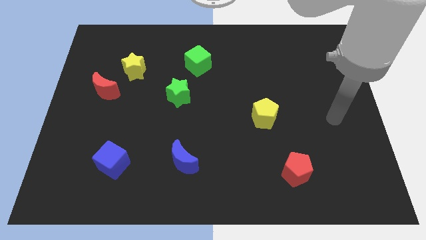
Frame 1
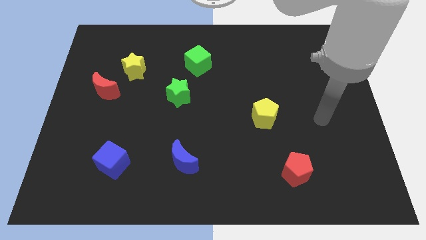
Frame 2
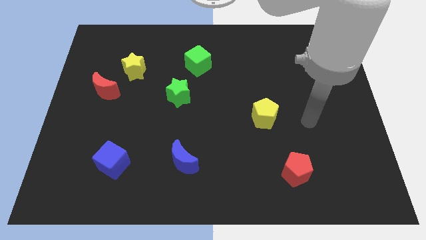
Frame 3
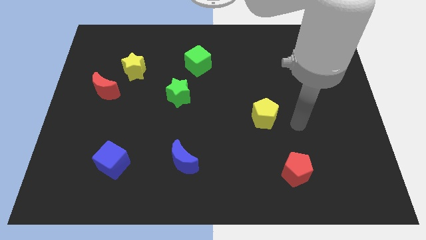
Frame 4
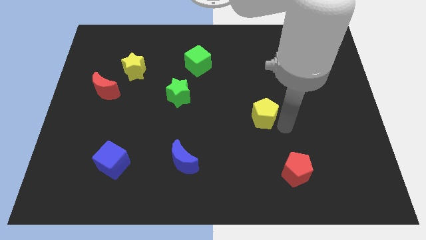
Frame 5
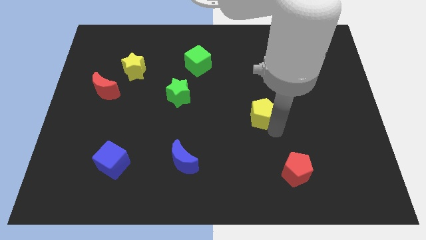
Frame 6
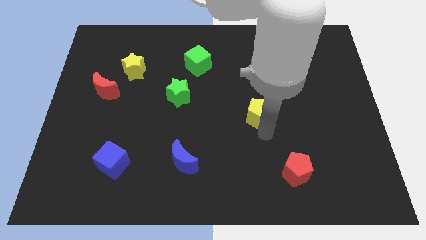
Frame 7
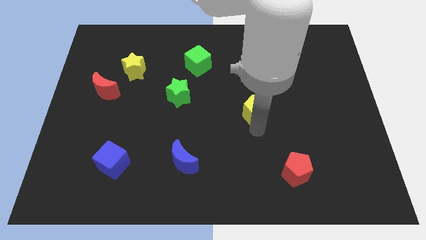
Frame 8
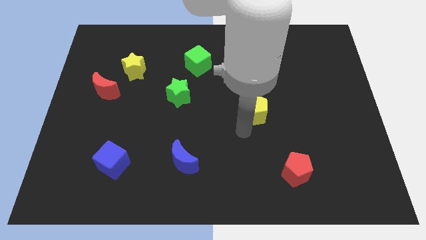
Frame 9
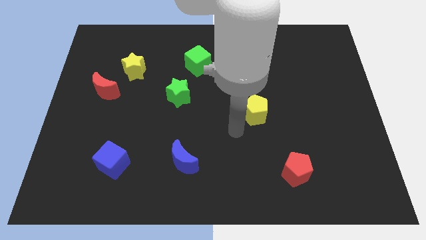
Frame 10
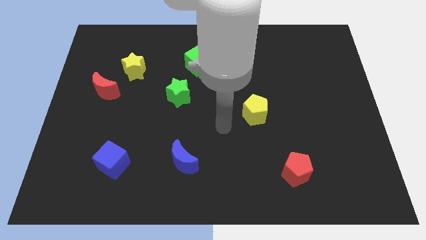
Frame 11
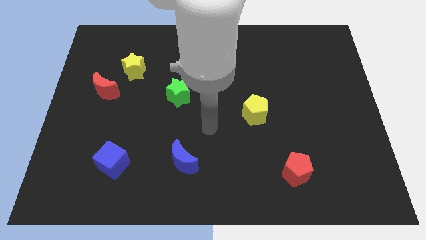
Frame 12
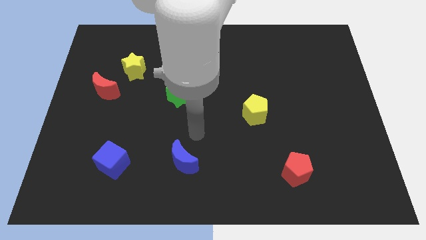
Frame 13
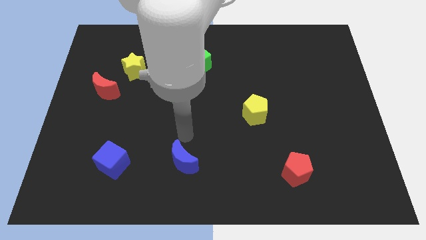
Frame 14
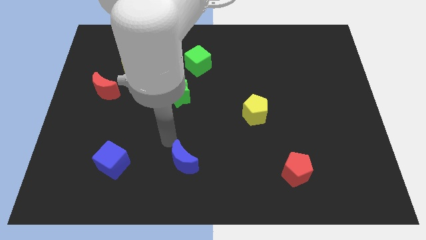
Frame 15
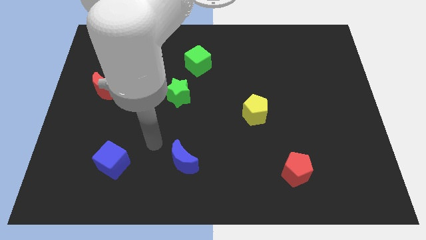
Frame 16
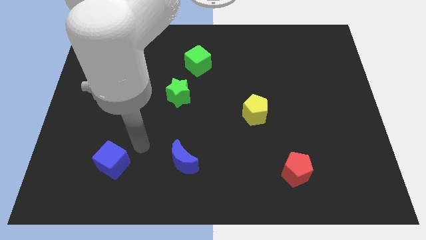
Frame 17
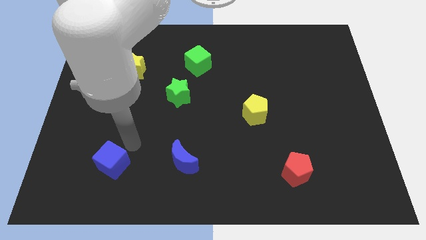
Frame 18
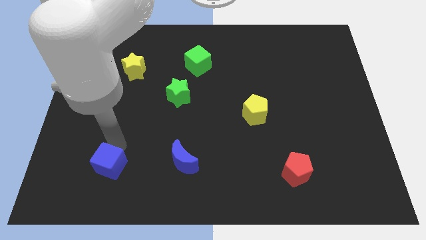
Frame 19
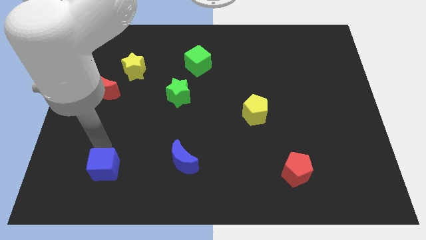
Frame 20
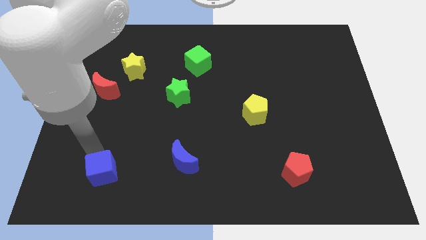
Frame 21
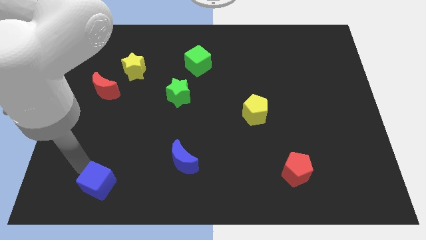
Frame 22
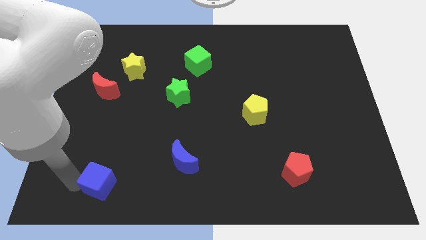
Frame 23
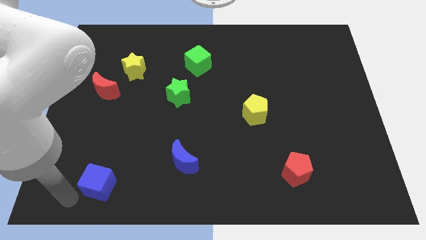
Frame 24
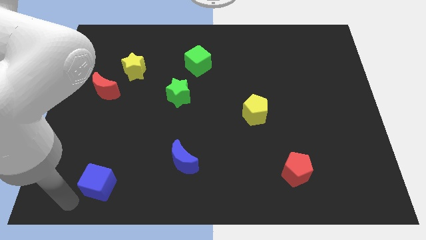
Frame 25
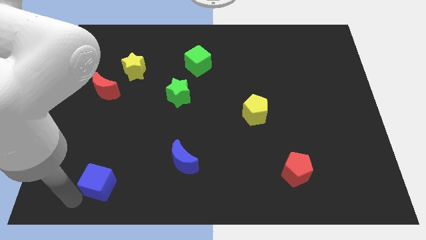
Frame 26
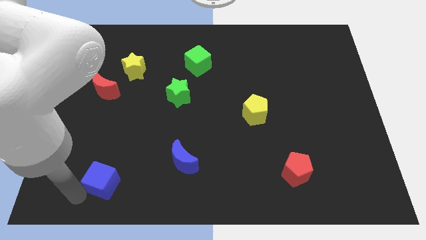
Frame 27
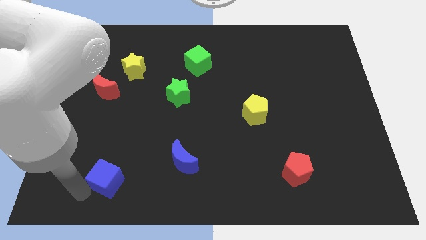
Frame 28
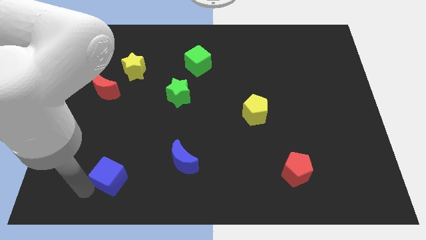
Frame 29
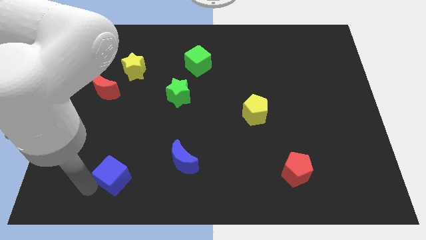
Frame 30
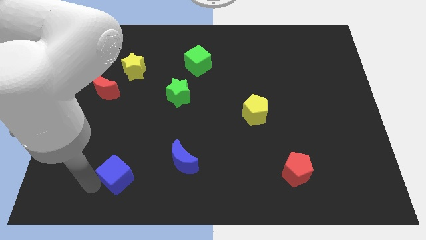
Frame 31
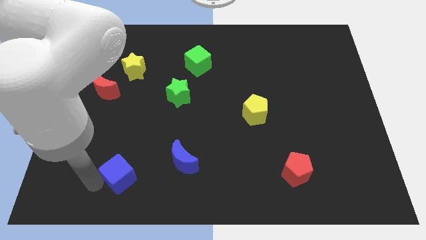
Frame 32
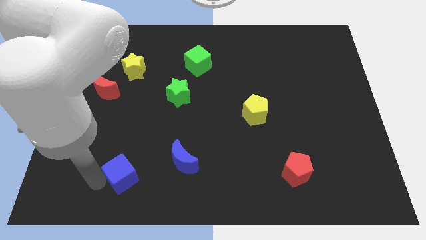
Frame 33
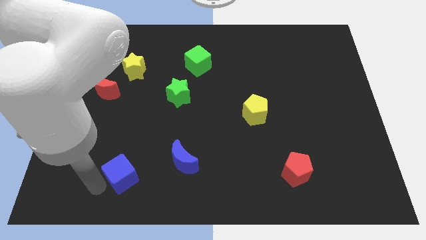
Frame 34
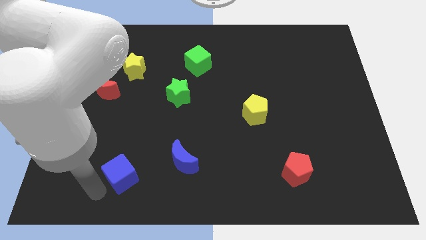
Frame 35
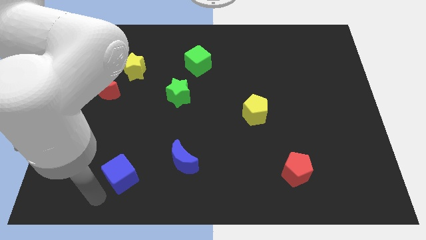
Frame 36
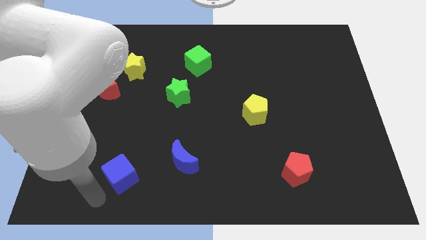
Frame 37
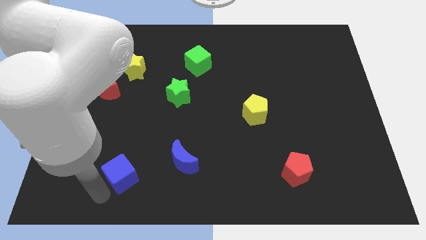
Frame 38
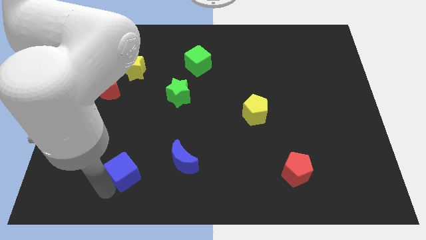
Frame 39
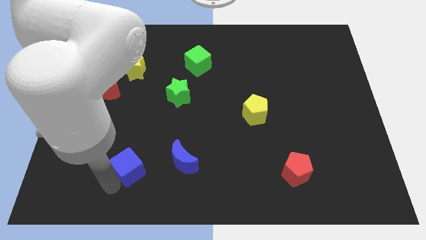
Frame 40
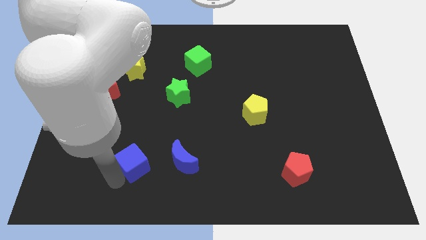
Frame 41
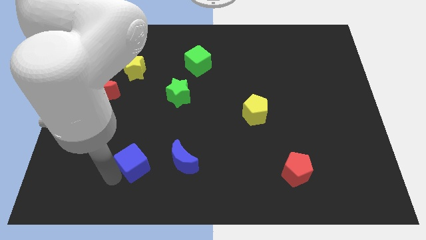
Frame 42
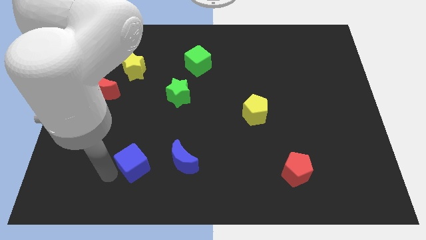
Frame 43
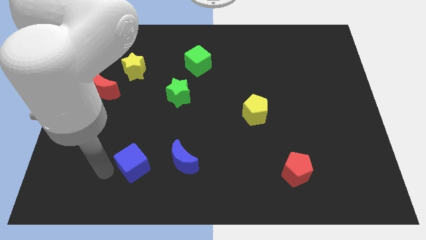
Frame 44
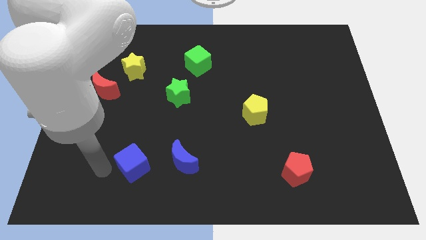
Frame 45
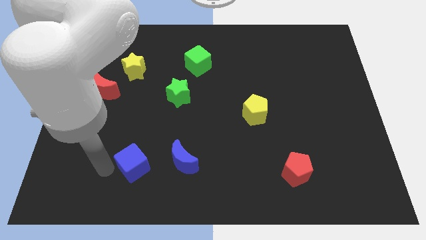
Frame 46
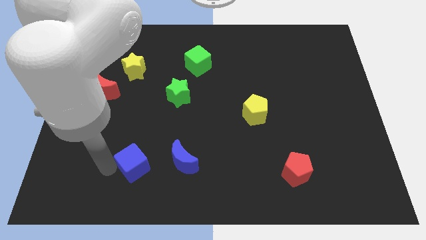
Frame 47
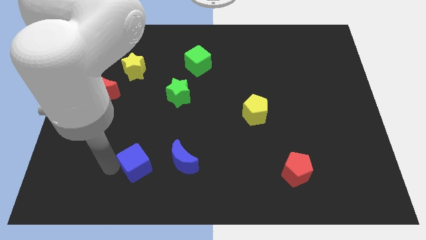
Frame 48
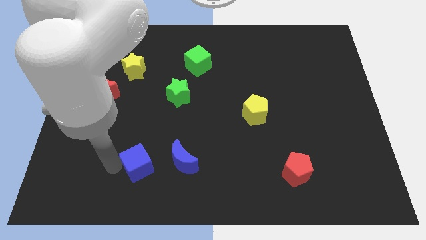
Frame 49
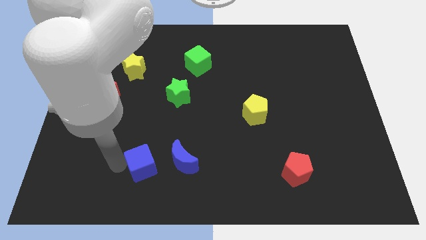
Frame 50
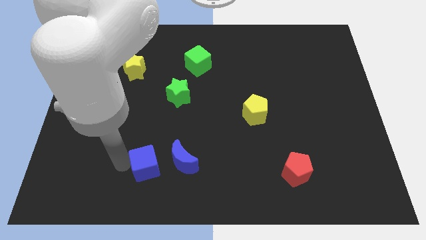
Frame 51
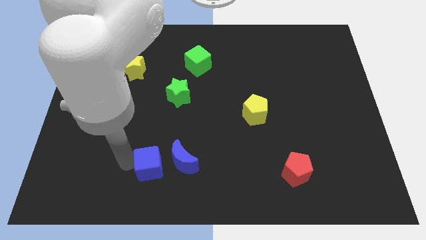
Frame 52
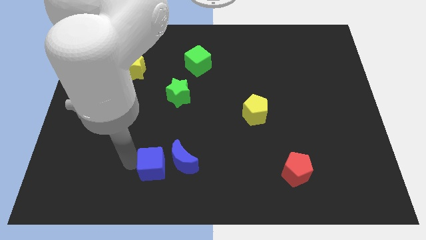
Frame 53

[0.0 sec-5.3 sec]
move the blue cube to the blue moon

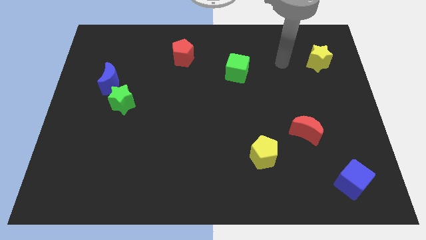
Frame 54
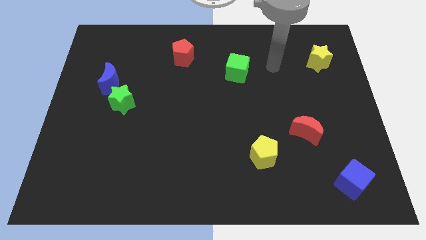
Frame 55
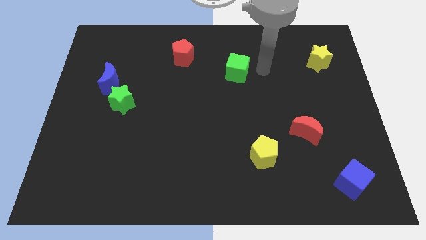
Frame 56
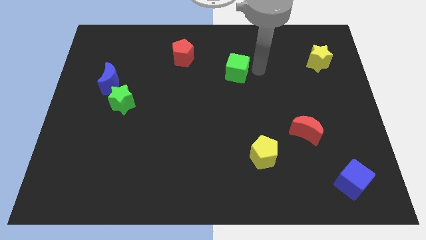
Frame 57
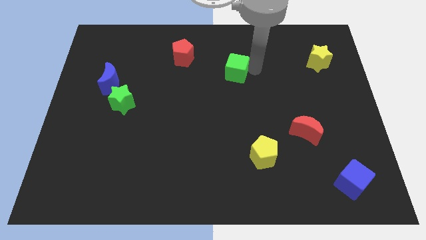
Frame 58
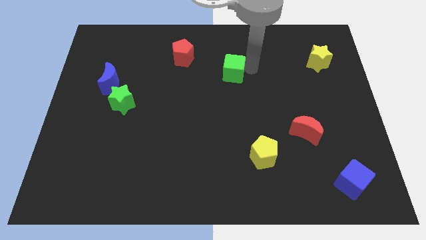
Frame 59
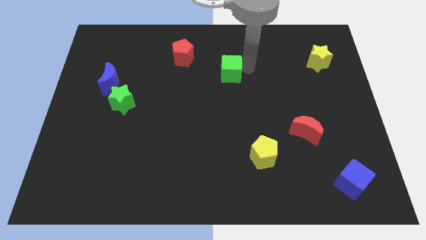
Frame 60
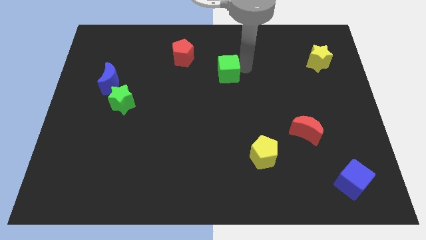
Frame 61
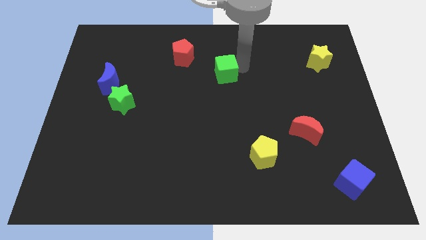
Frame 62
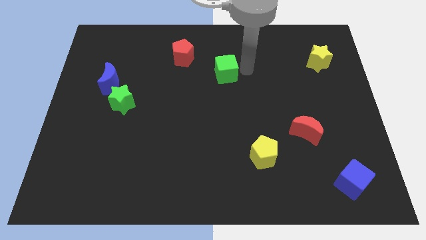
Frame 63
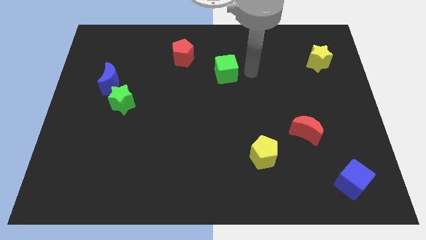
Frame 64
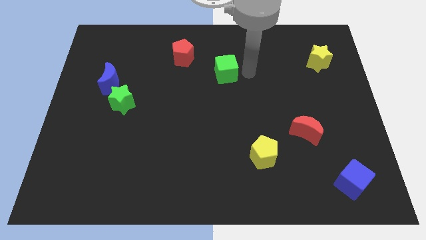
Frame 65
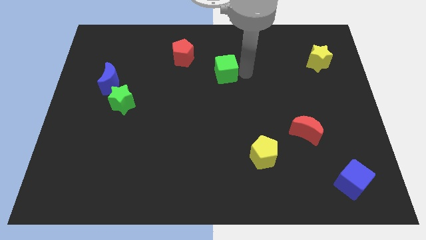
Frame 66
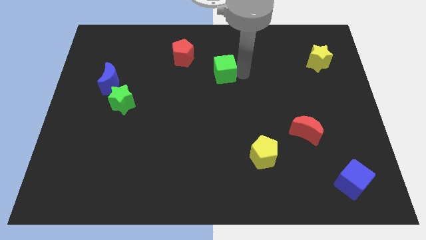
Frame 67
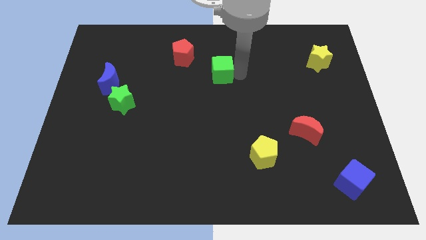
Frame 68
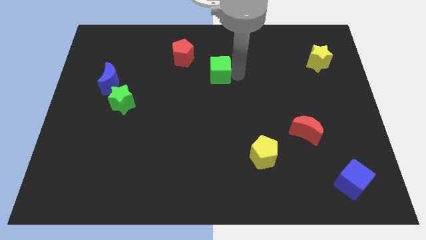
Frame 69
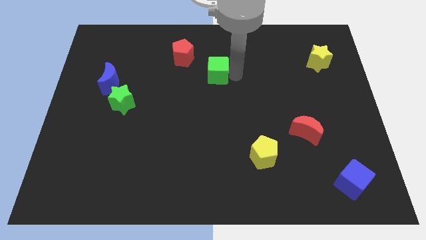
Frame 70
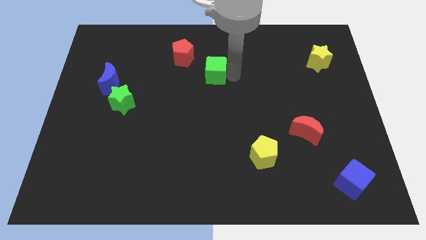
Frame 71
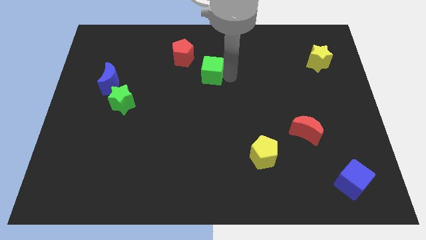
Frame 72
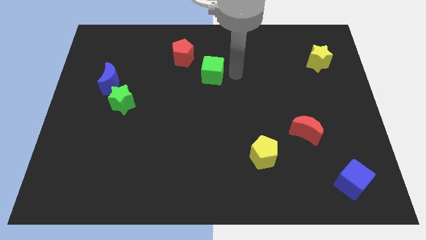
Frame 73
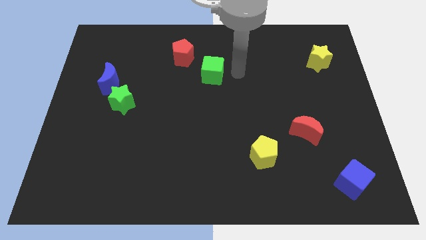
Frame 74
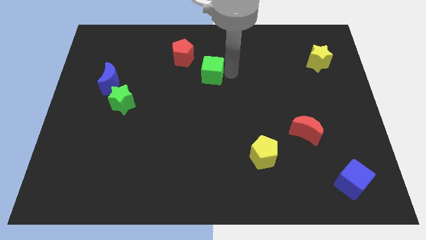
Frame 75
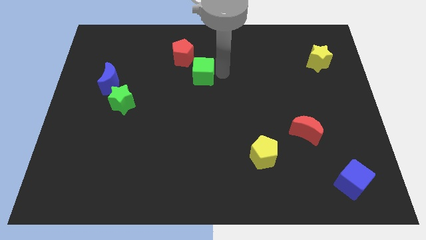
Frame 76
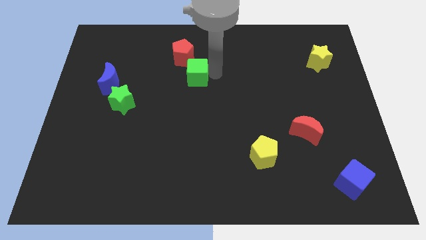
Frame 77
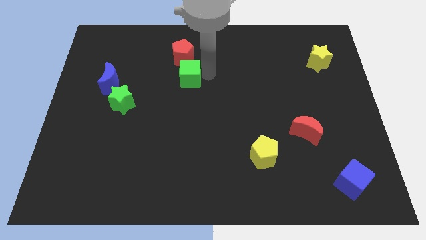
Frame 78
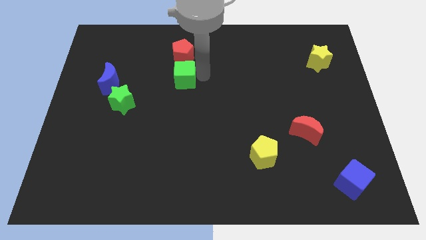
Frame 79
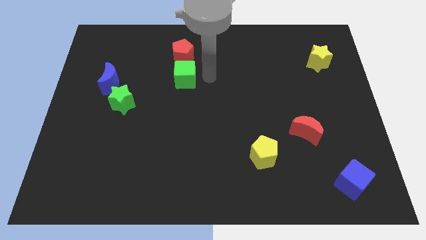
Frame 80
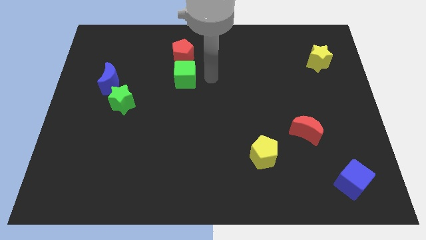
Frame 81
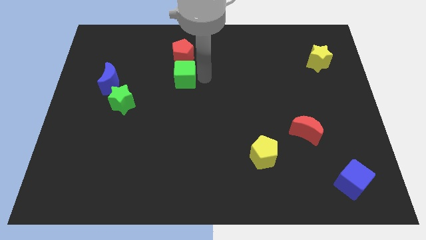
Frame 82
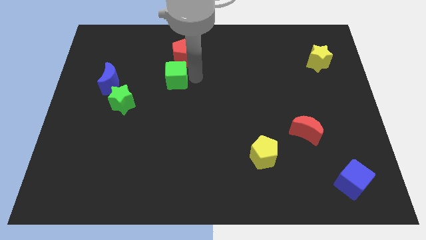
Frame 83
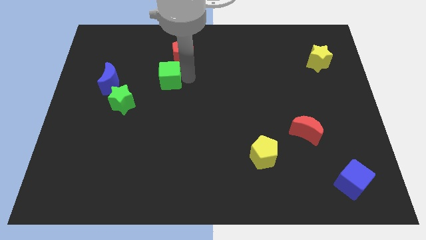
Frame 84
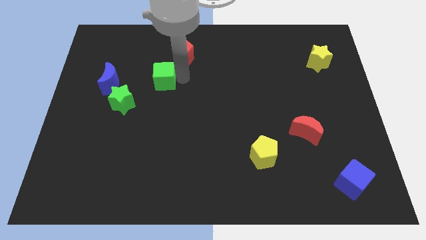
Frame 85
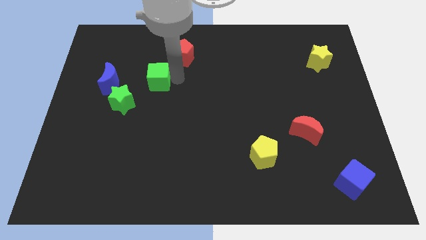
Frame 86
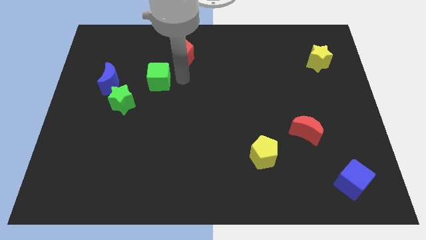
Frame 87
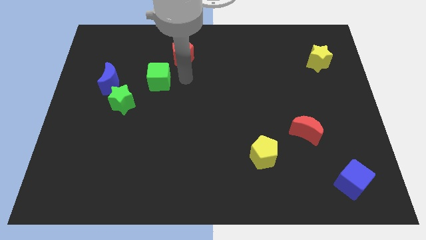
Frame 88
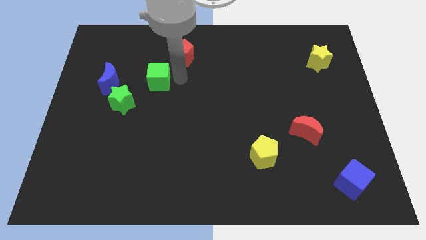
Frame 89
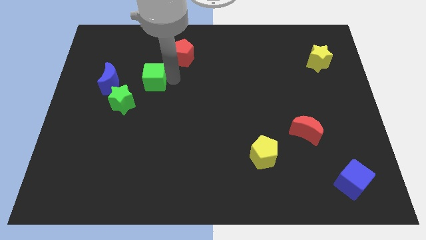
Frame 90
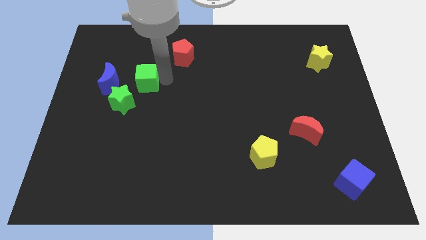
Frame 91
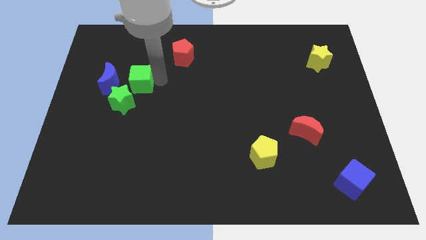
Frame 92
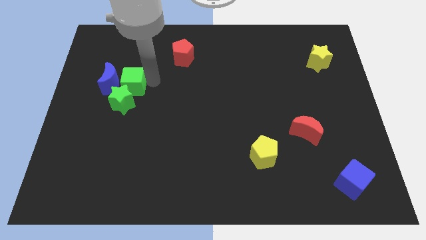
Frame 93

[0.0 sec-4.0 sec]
push the green cube to the blue moon
